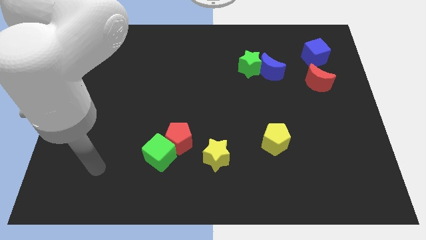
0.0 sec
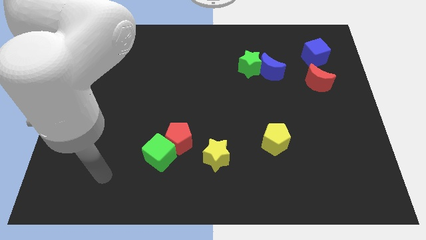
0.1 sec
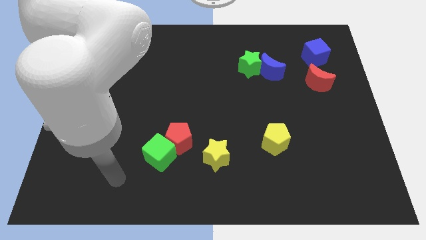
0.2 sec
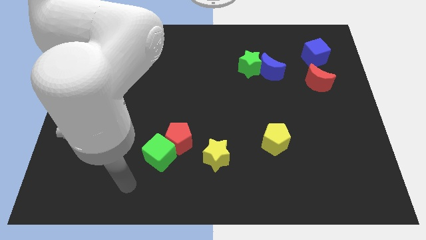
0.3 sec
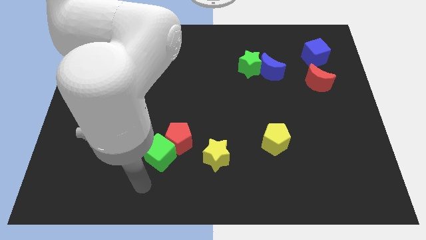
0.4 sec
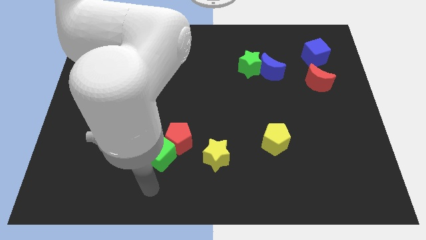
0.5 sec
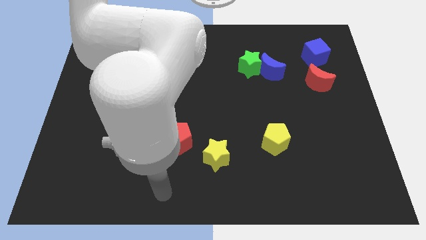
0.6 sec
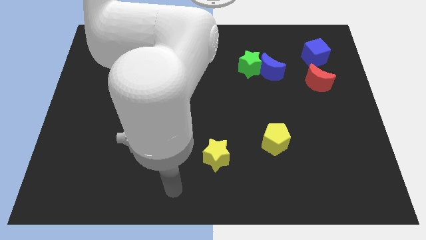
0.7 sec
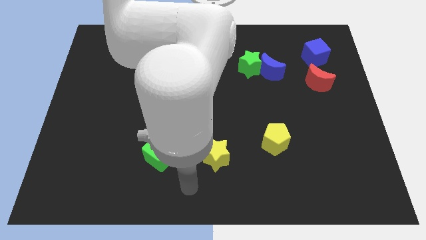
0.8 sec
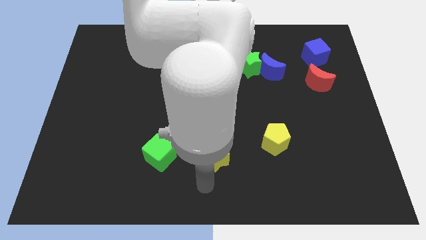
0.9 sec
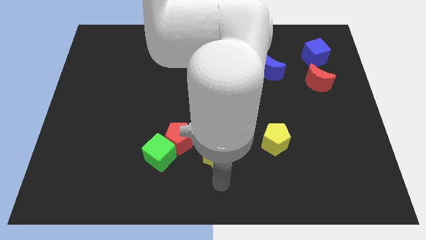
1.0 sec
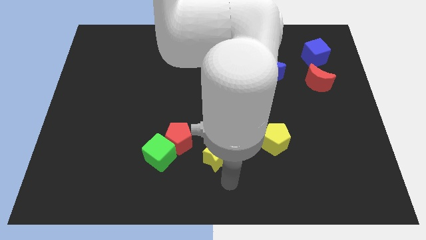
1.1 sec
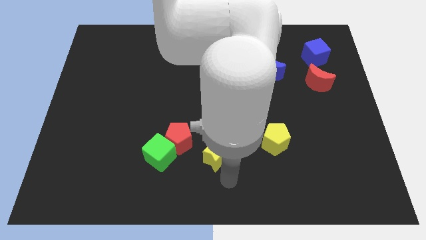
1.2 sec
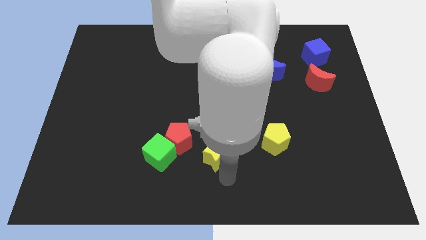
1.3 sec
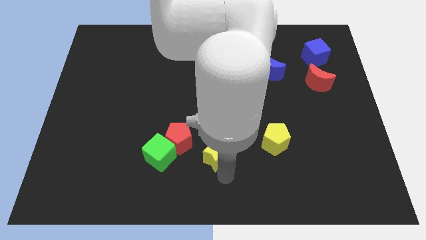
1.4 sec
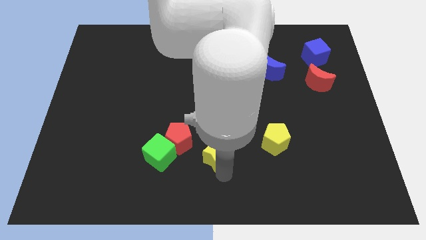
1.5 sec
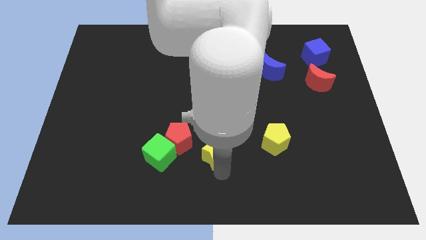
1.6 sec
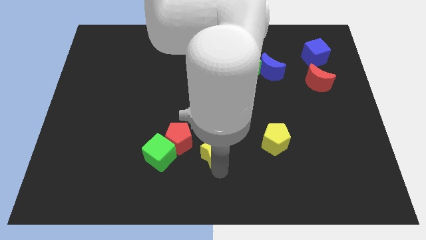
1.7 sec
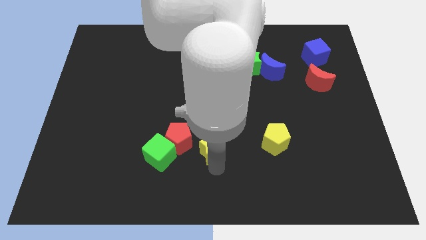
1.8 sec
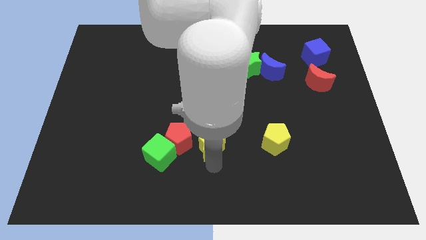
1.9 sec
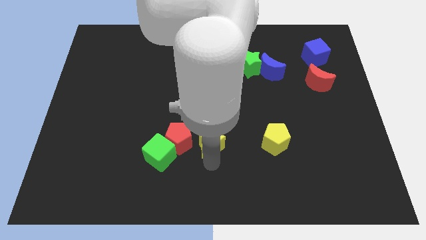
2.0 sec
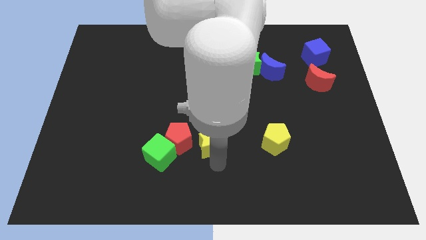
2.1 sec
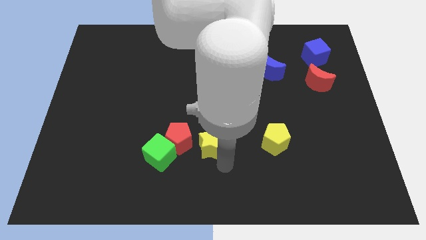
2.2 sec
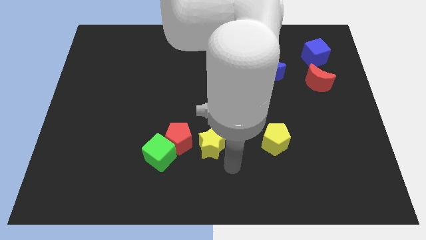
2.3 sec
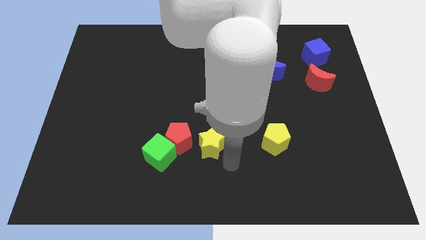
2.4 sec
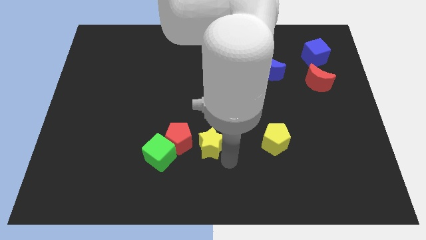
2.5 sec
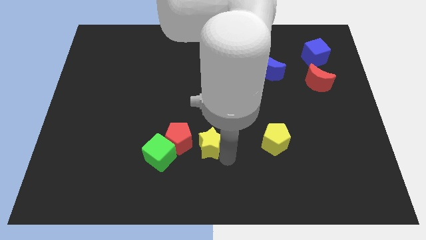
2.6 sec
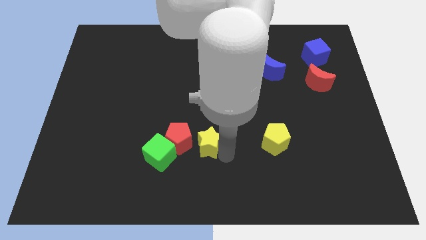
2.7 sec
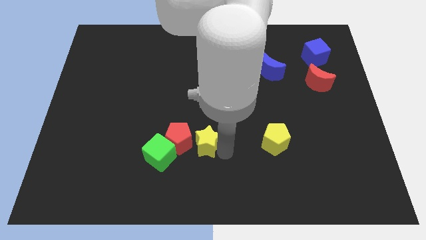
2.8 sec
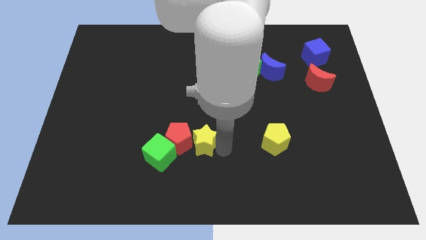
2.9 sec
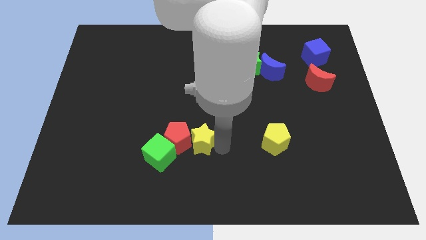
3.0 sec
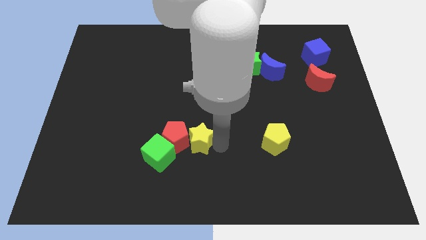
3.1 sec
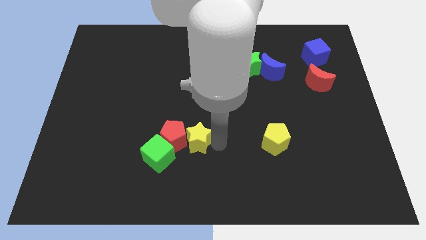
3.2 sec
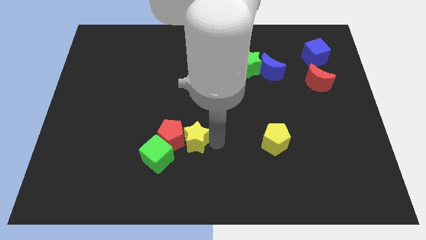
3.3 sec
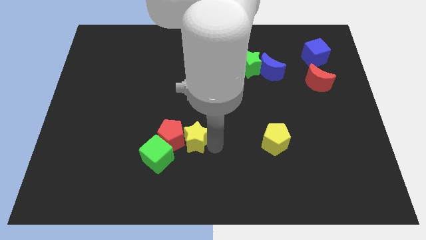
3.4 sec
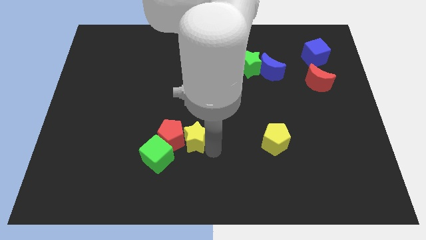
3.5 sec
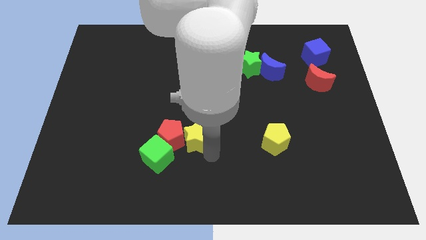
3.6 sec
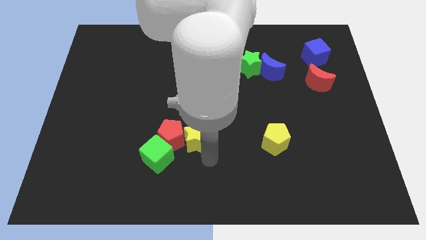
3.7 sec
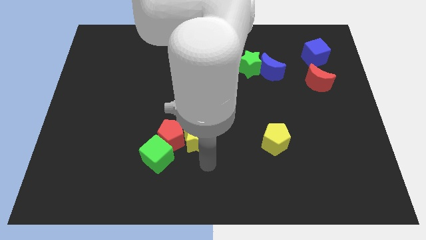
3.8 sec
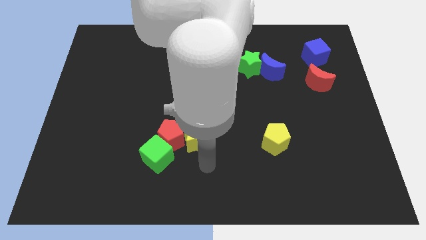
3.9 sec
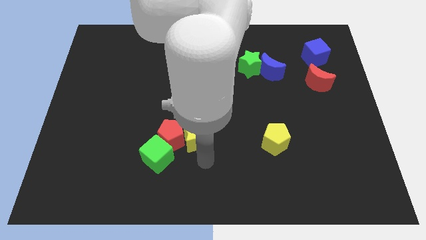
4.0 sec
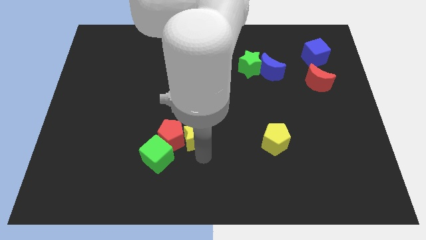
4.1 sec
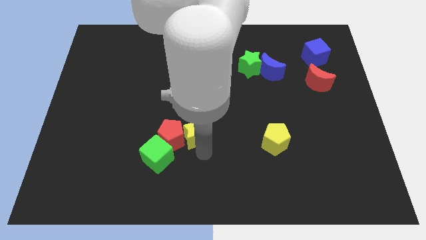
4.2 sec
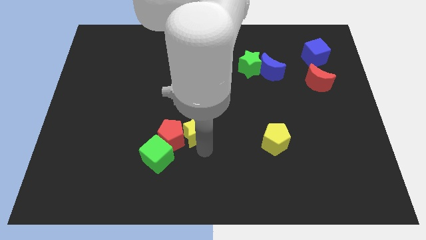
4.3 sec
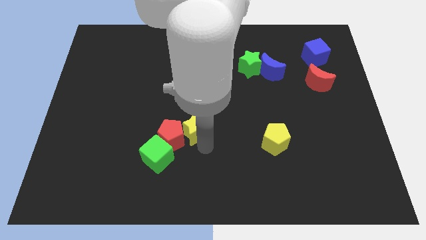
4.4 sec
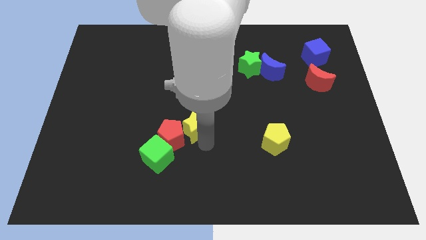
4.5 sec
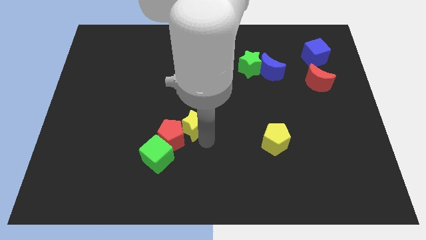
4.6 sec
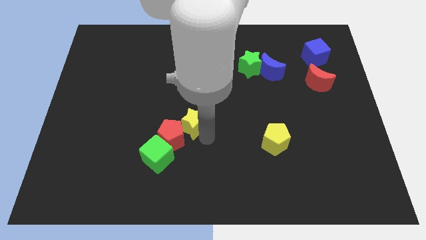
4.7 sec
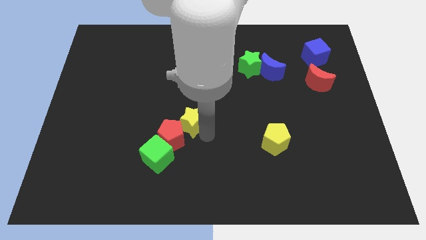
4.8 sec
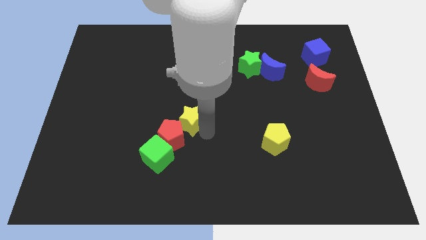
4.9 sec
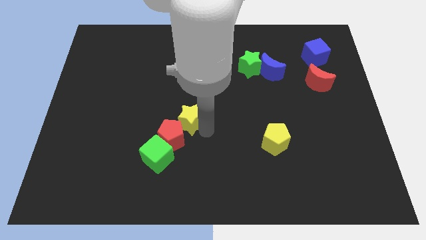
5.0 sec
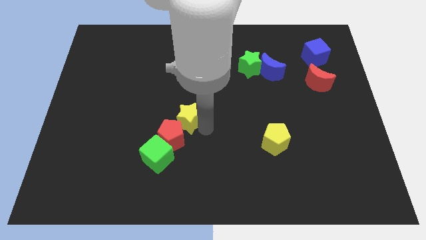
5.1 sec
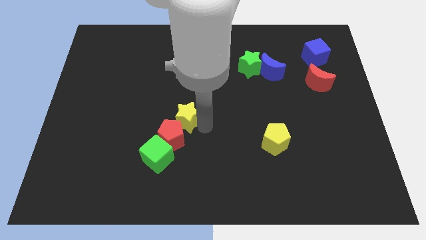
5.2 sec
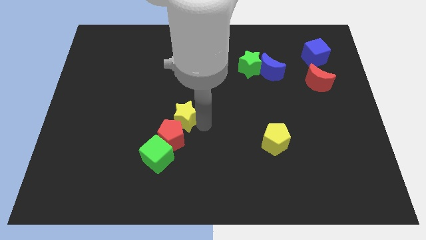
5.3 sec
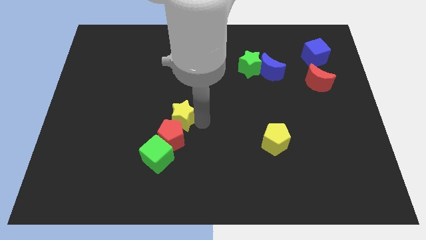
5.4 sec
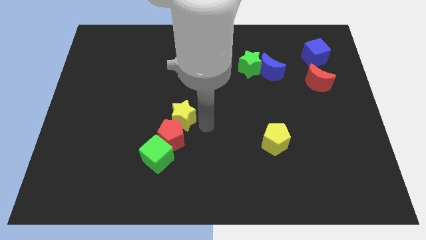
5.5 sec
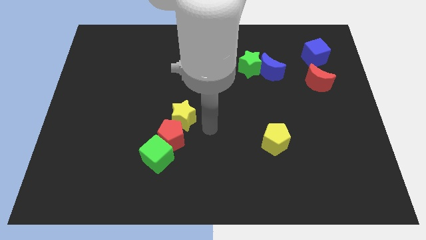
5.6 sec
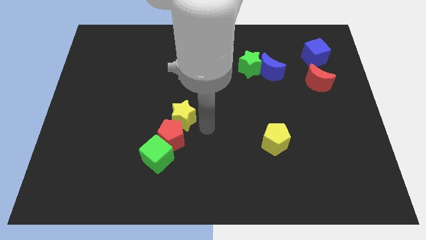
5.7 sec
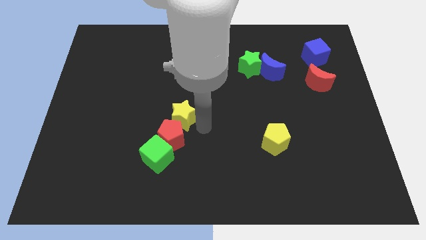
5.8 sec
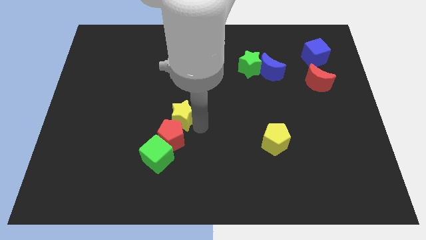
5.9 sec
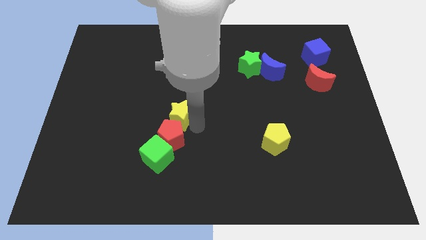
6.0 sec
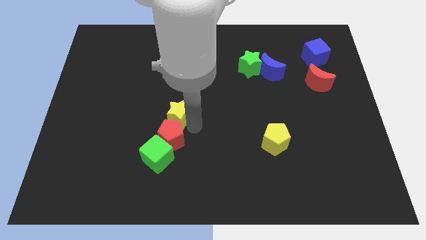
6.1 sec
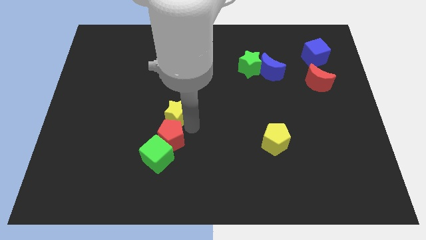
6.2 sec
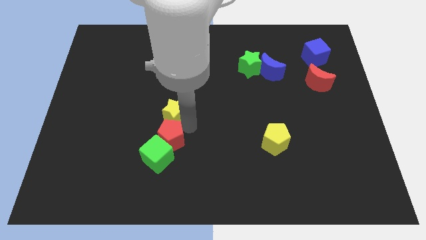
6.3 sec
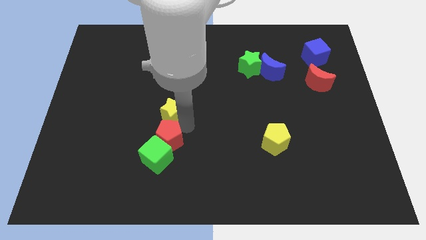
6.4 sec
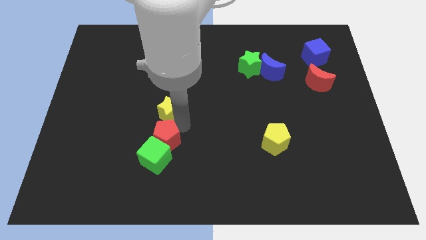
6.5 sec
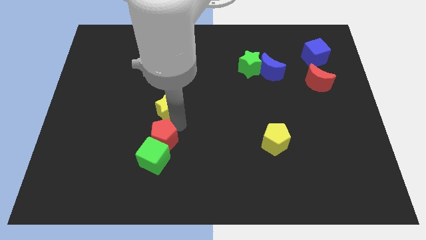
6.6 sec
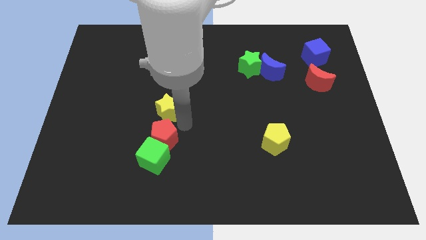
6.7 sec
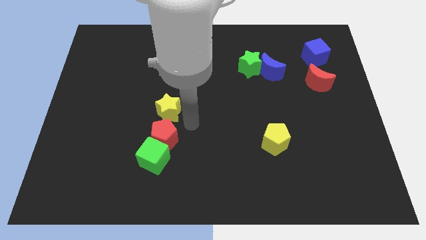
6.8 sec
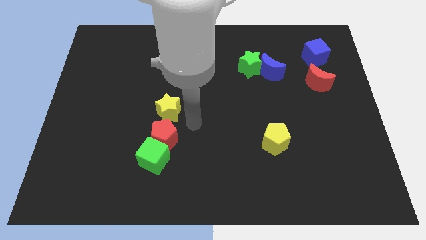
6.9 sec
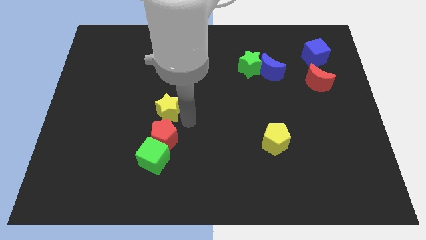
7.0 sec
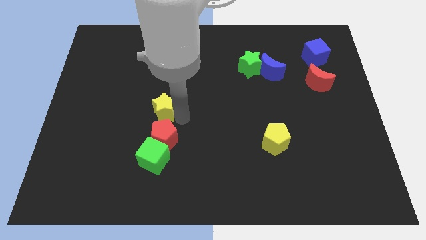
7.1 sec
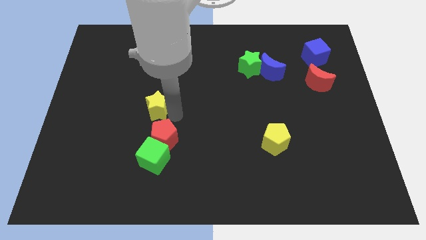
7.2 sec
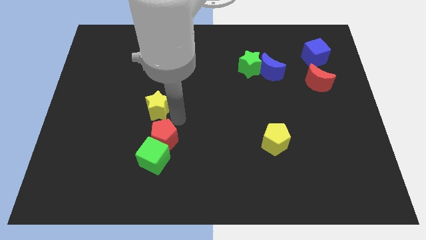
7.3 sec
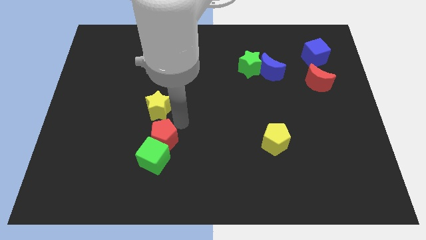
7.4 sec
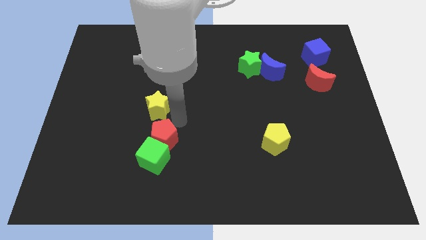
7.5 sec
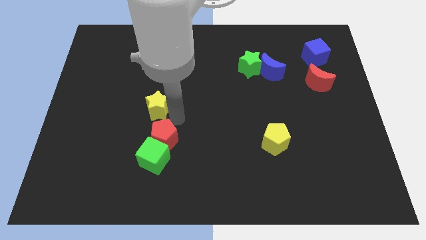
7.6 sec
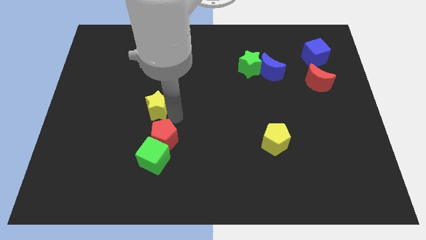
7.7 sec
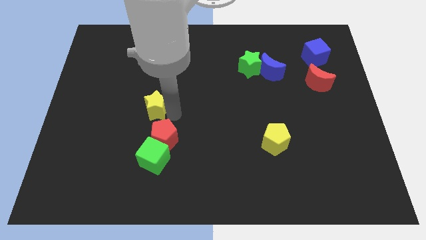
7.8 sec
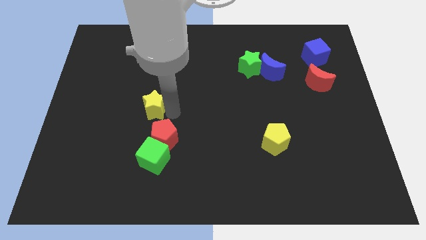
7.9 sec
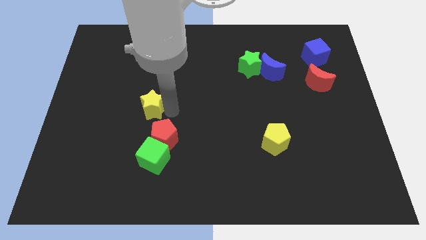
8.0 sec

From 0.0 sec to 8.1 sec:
slide the yellow star upwards and to the left
